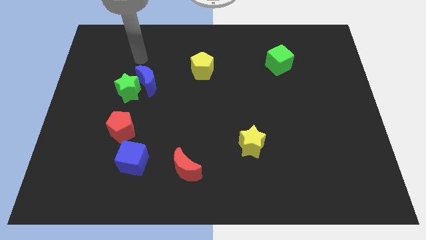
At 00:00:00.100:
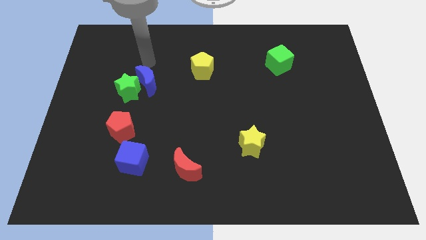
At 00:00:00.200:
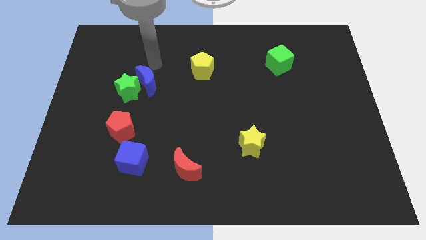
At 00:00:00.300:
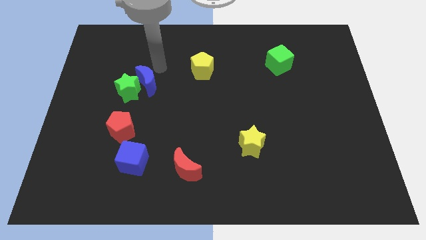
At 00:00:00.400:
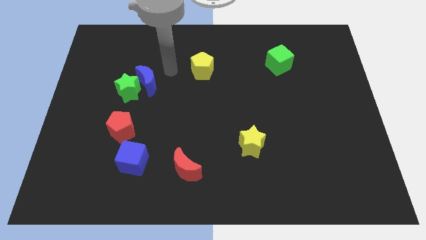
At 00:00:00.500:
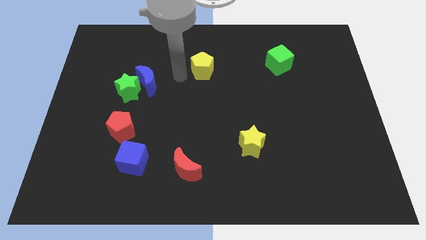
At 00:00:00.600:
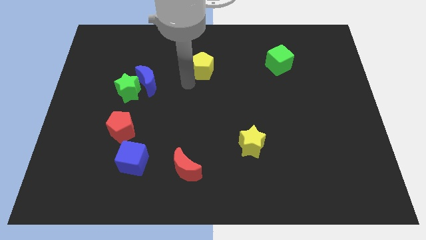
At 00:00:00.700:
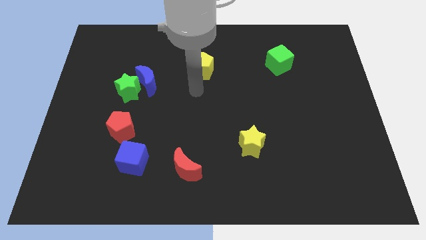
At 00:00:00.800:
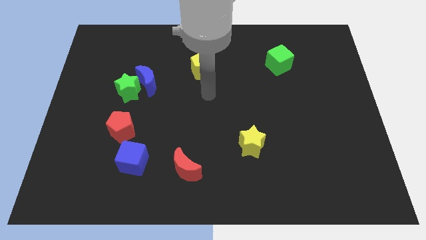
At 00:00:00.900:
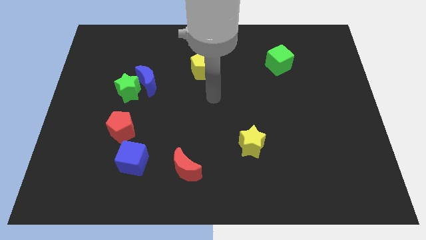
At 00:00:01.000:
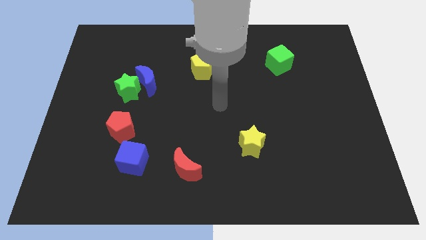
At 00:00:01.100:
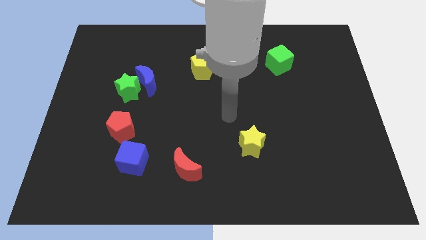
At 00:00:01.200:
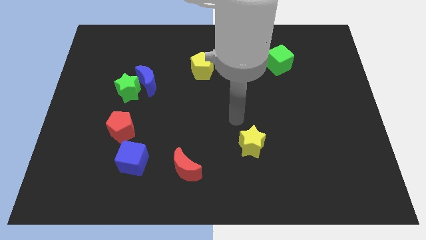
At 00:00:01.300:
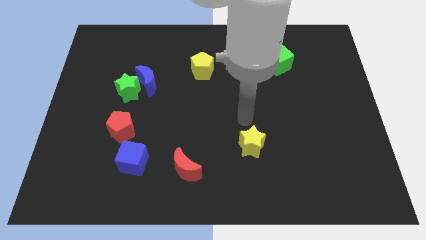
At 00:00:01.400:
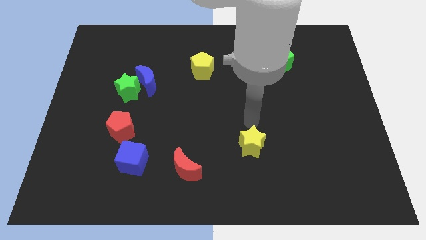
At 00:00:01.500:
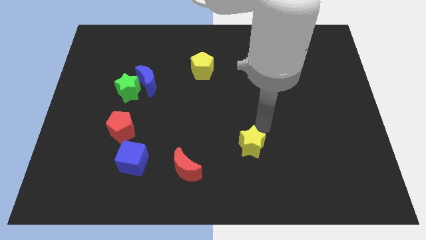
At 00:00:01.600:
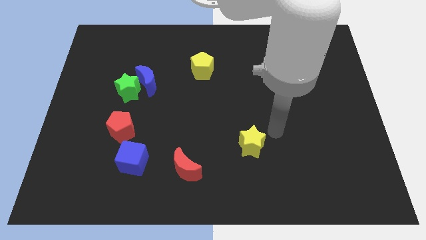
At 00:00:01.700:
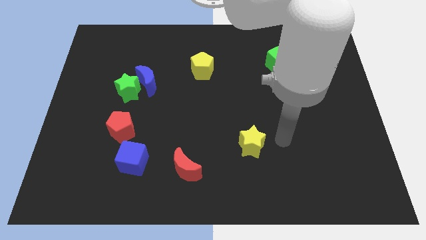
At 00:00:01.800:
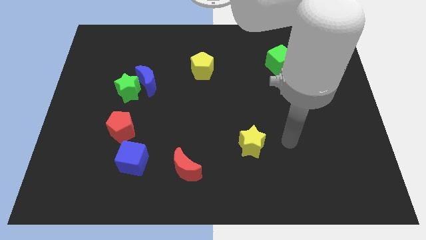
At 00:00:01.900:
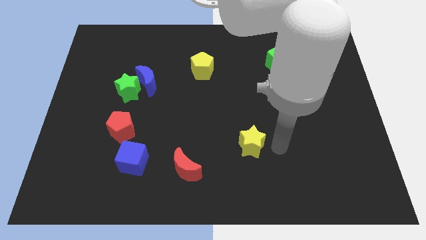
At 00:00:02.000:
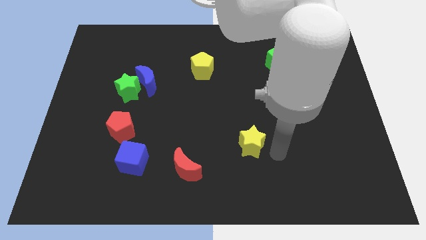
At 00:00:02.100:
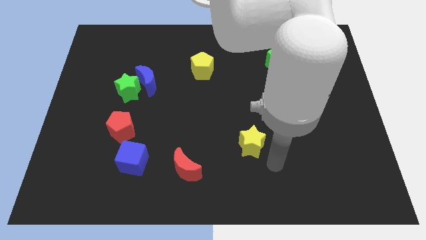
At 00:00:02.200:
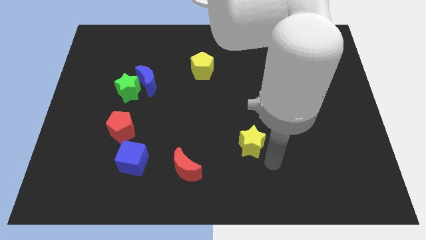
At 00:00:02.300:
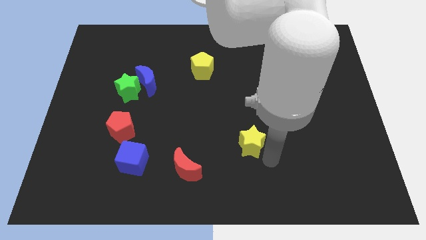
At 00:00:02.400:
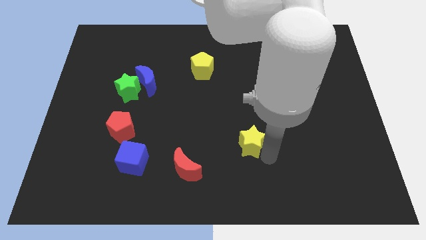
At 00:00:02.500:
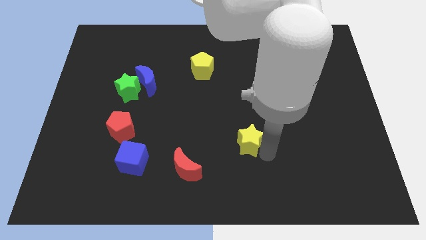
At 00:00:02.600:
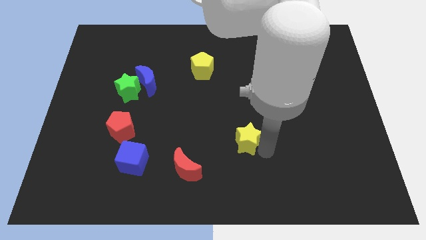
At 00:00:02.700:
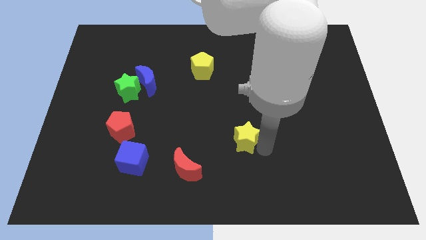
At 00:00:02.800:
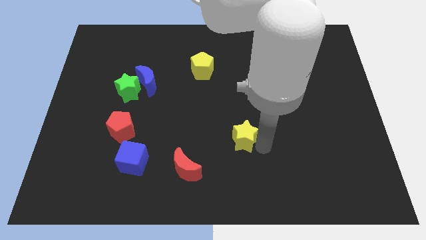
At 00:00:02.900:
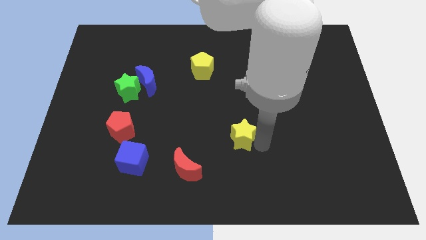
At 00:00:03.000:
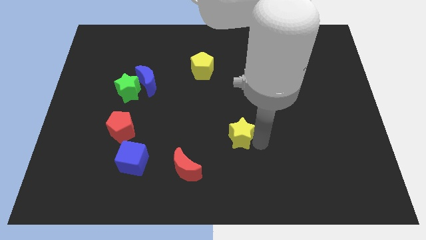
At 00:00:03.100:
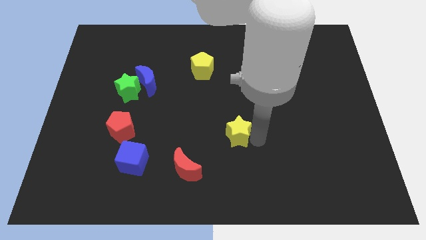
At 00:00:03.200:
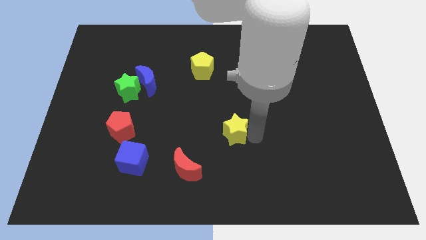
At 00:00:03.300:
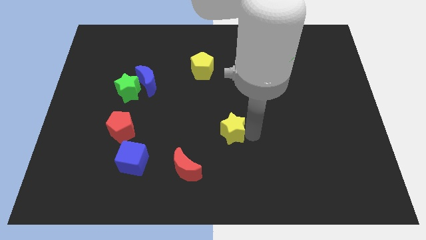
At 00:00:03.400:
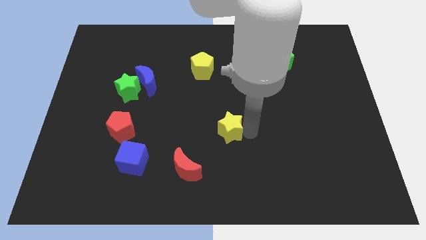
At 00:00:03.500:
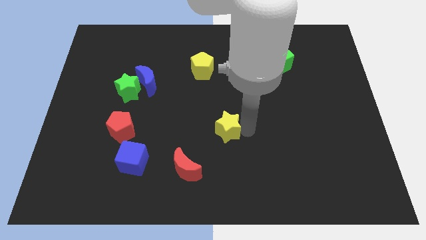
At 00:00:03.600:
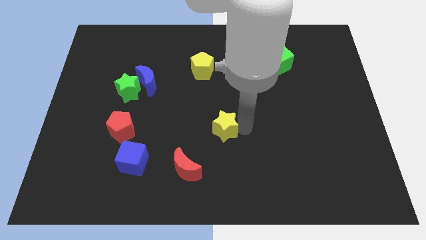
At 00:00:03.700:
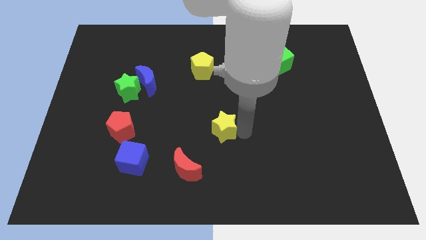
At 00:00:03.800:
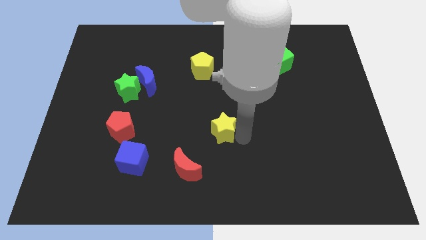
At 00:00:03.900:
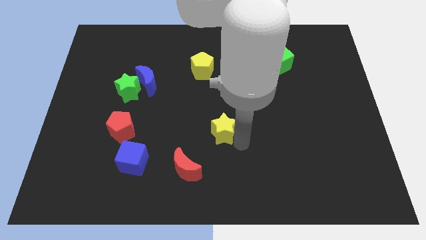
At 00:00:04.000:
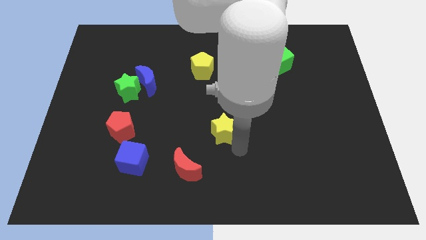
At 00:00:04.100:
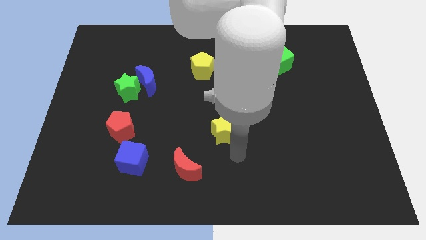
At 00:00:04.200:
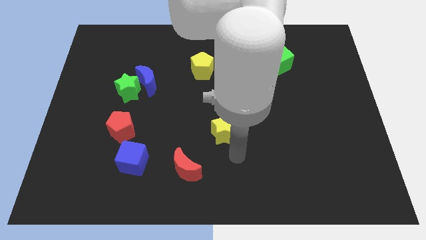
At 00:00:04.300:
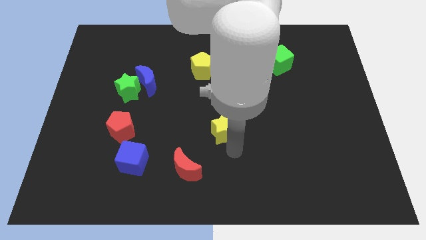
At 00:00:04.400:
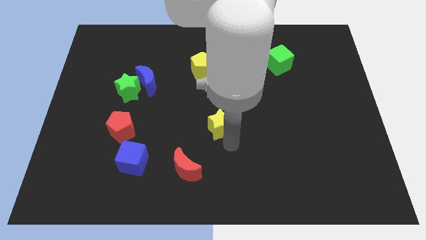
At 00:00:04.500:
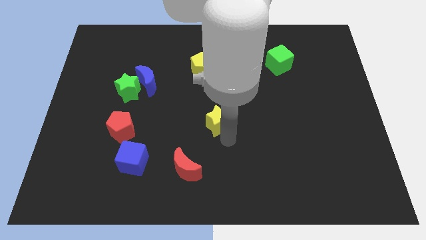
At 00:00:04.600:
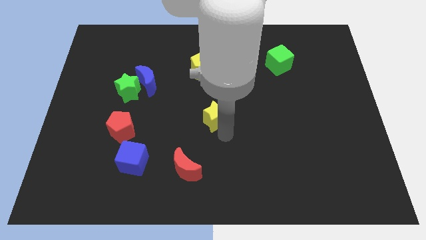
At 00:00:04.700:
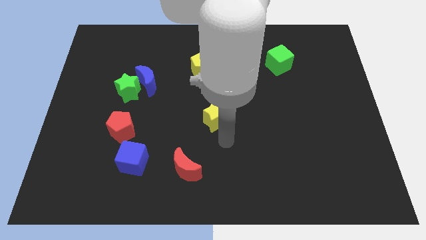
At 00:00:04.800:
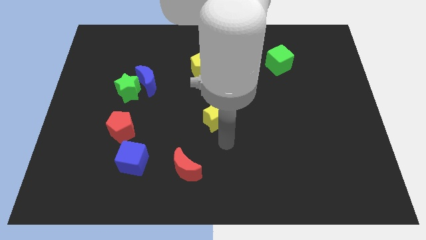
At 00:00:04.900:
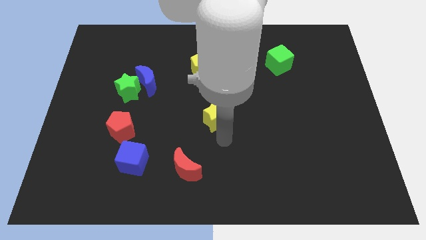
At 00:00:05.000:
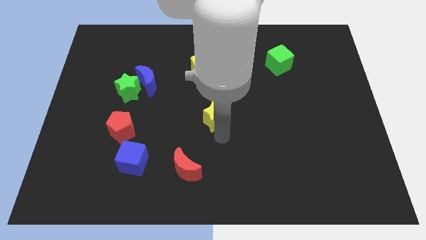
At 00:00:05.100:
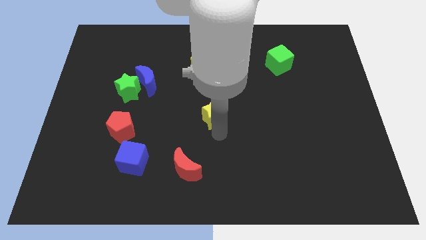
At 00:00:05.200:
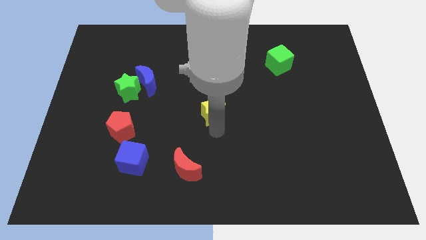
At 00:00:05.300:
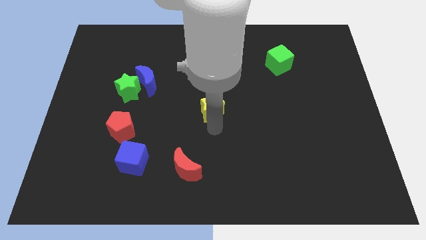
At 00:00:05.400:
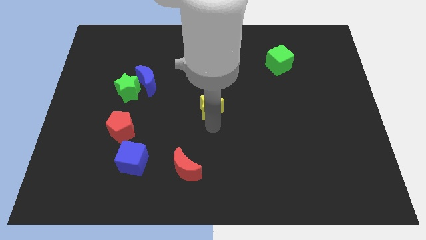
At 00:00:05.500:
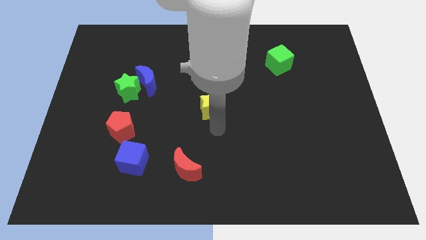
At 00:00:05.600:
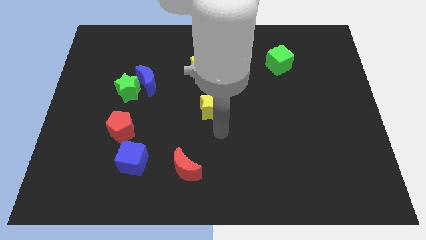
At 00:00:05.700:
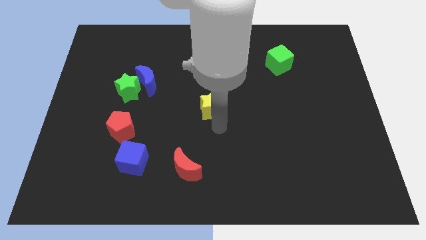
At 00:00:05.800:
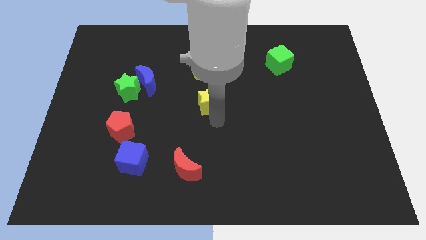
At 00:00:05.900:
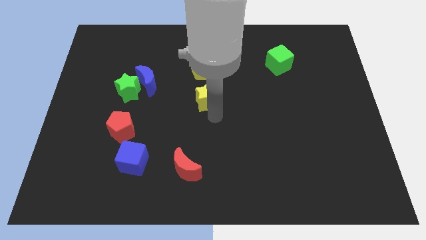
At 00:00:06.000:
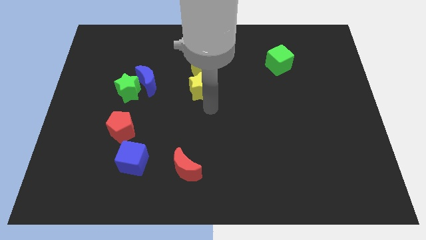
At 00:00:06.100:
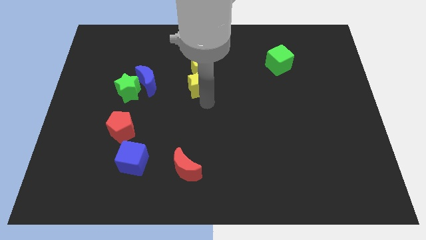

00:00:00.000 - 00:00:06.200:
move the yellow star close to the yellow pentagon

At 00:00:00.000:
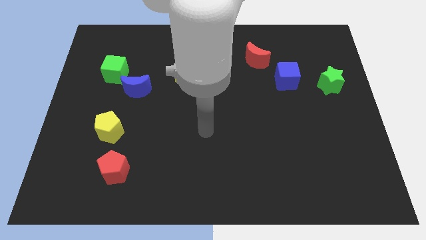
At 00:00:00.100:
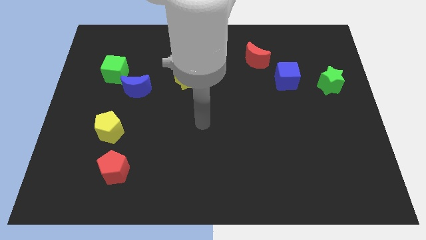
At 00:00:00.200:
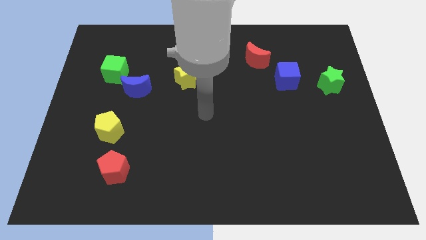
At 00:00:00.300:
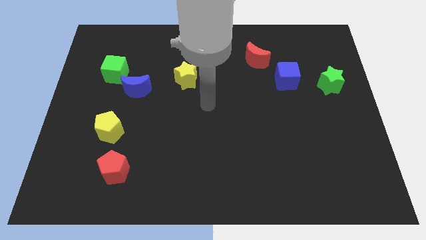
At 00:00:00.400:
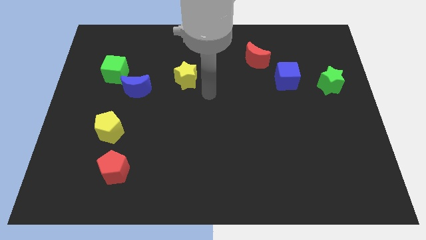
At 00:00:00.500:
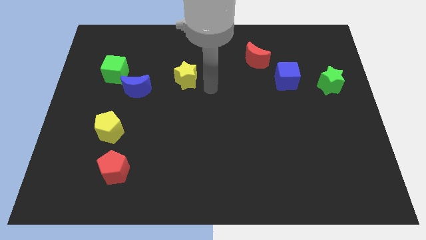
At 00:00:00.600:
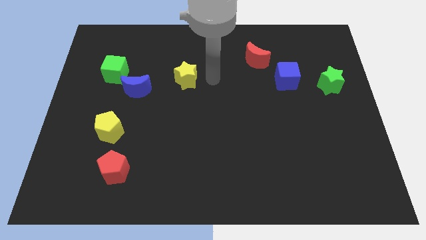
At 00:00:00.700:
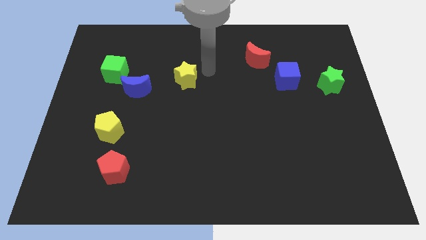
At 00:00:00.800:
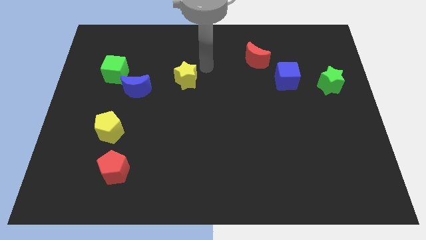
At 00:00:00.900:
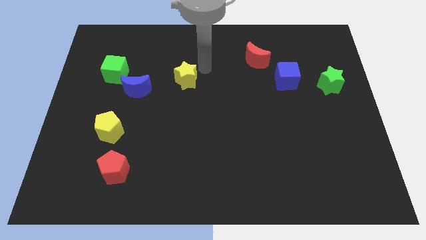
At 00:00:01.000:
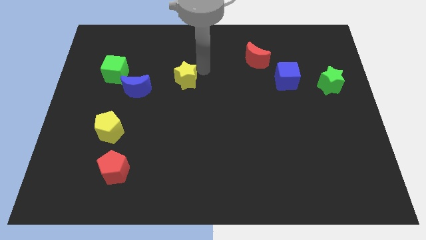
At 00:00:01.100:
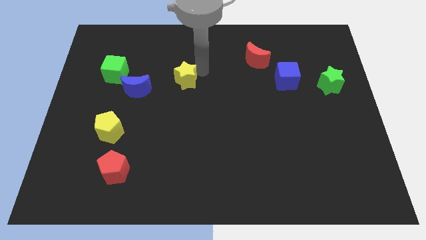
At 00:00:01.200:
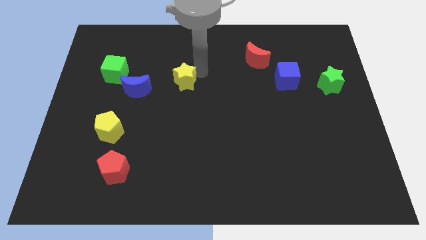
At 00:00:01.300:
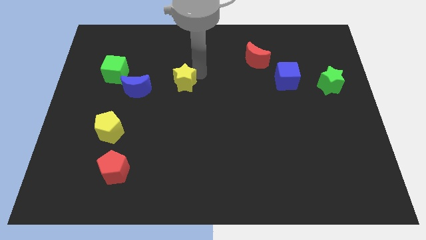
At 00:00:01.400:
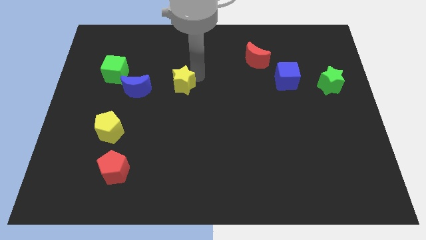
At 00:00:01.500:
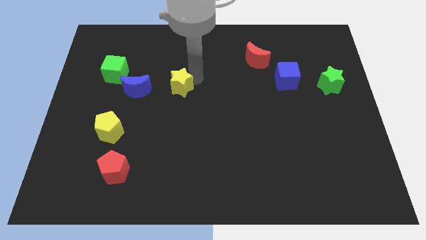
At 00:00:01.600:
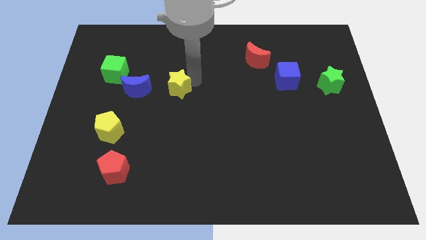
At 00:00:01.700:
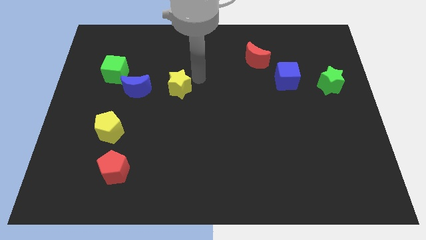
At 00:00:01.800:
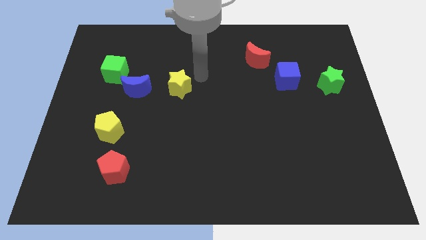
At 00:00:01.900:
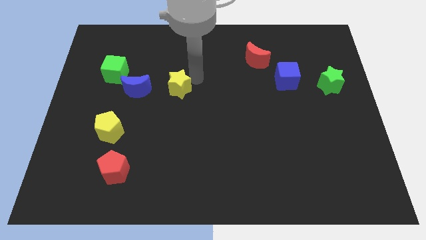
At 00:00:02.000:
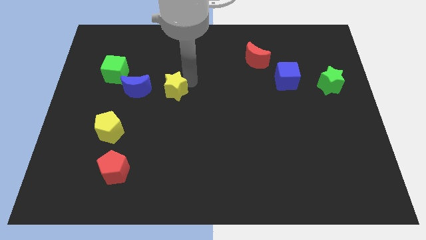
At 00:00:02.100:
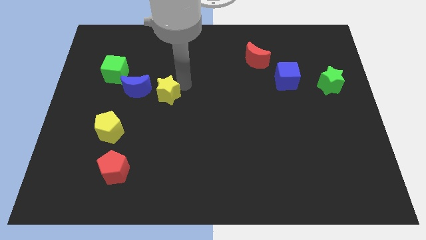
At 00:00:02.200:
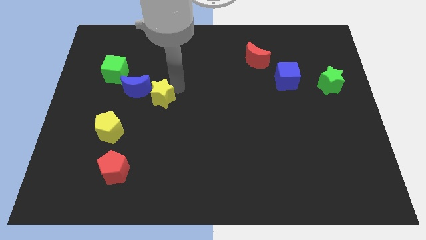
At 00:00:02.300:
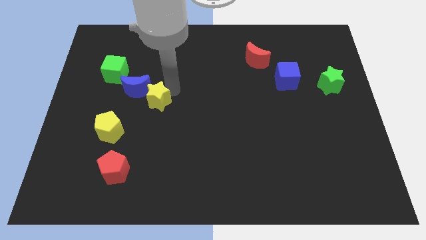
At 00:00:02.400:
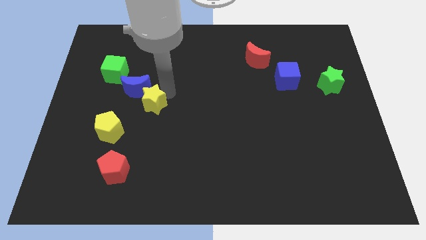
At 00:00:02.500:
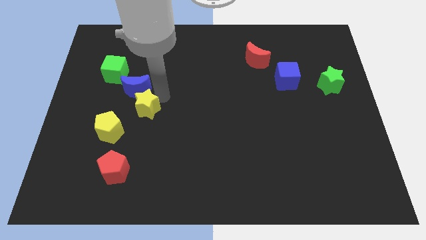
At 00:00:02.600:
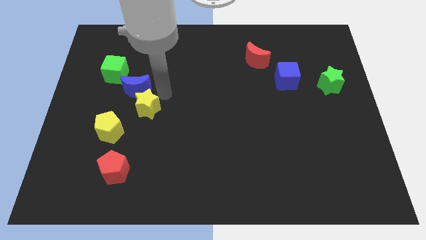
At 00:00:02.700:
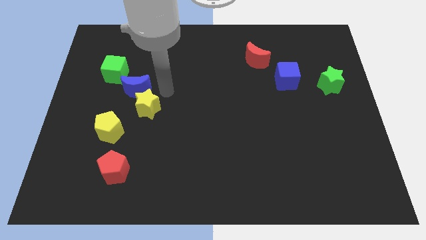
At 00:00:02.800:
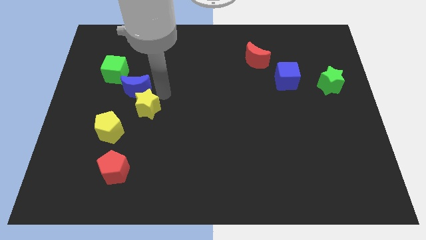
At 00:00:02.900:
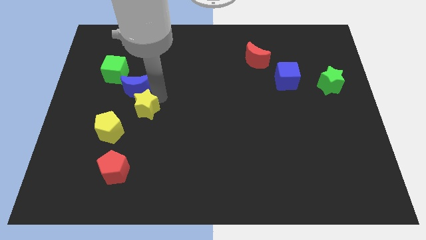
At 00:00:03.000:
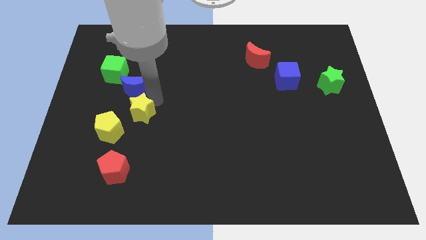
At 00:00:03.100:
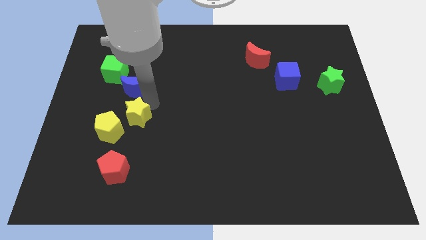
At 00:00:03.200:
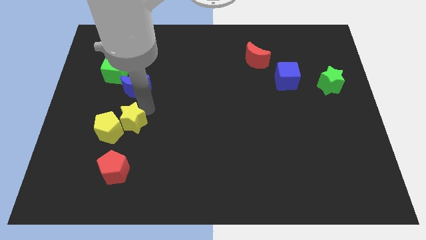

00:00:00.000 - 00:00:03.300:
put the yellow star towards the yellow pentagon
